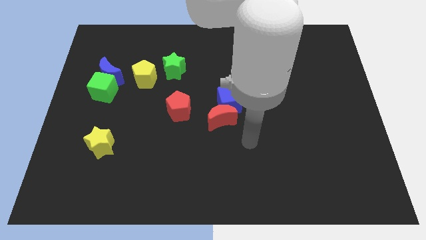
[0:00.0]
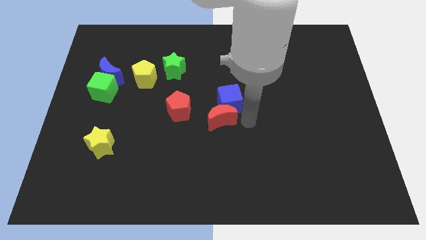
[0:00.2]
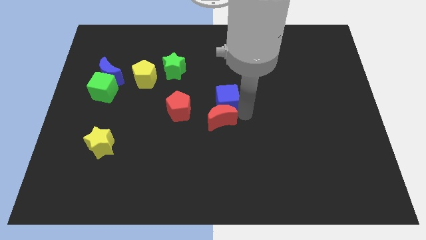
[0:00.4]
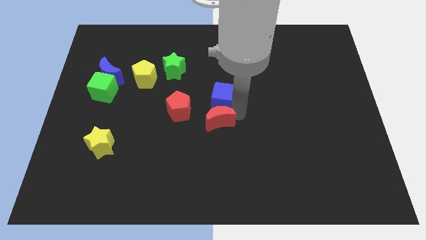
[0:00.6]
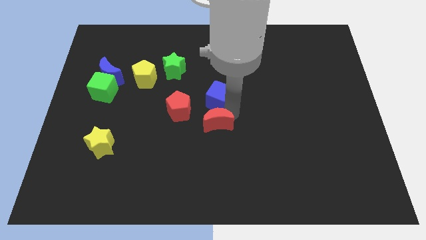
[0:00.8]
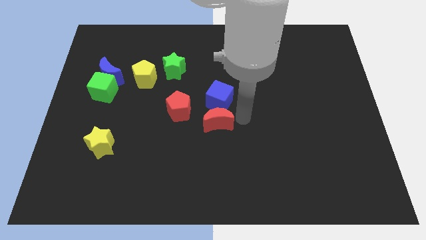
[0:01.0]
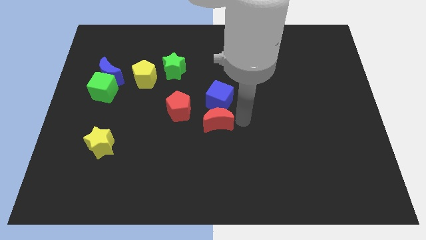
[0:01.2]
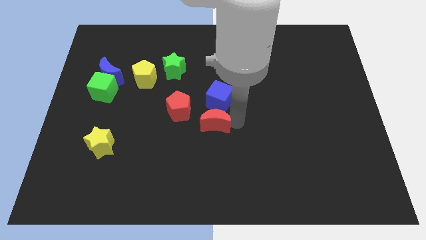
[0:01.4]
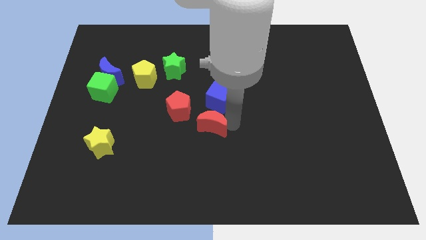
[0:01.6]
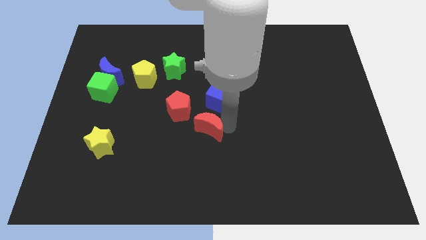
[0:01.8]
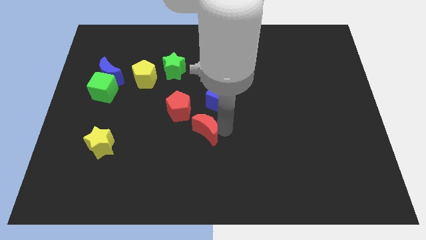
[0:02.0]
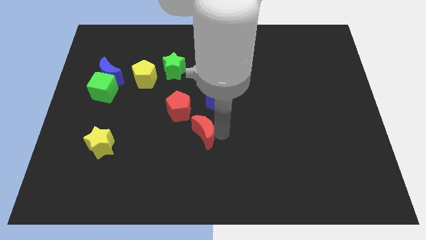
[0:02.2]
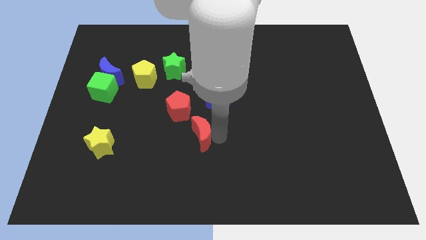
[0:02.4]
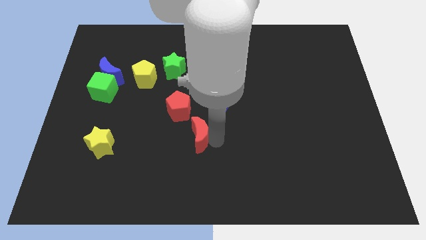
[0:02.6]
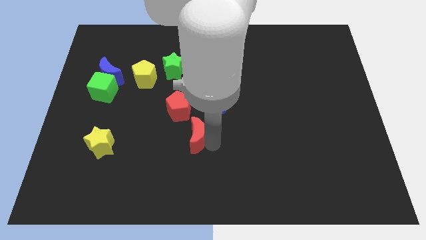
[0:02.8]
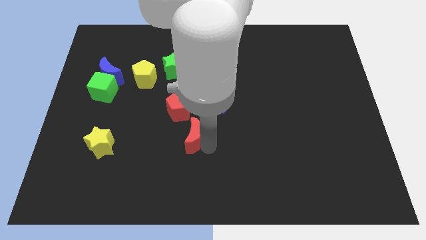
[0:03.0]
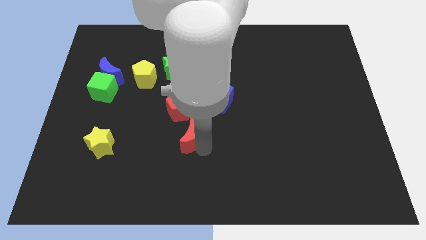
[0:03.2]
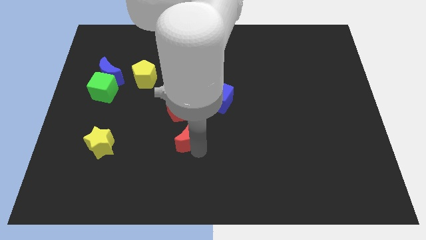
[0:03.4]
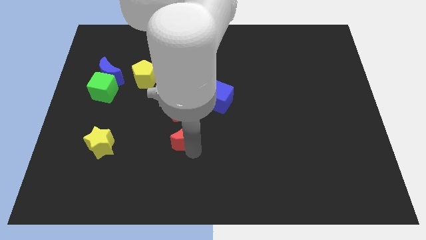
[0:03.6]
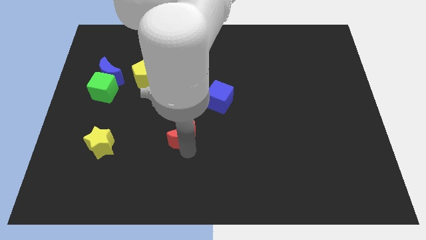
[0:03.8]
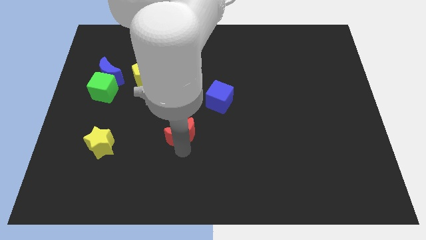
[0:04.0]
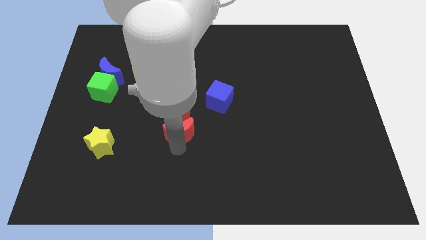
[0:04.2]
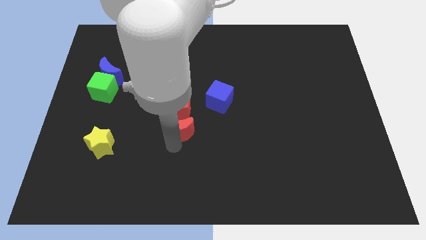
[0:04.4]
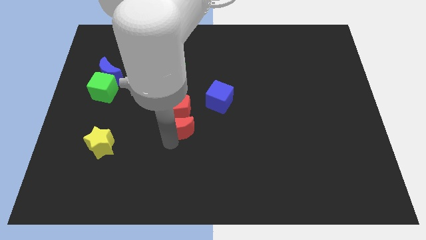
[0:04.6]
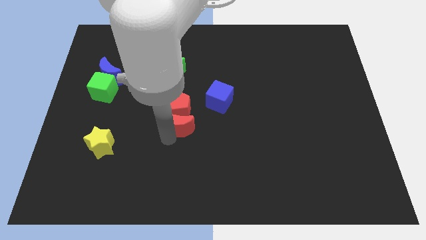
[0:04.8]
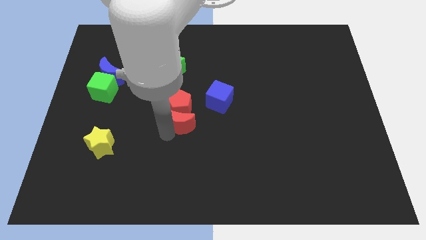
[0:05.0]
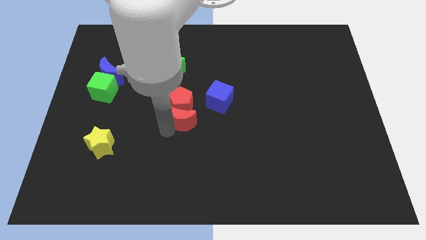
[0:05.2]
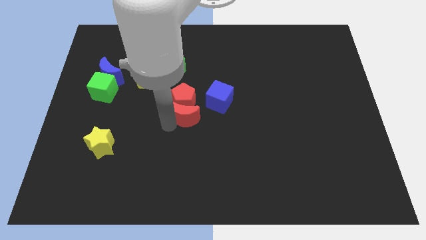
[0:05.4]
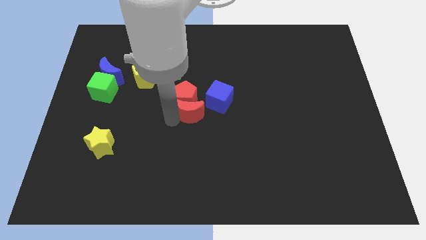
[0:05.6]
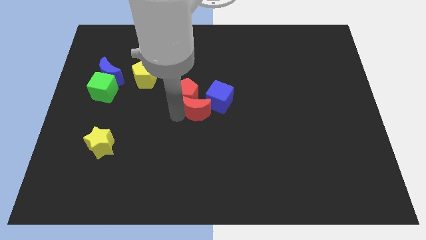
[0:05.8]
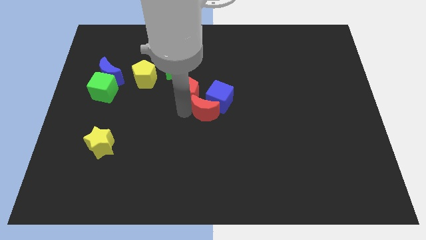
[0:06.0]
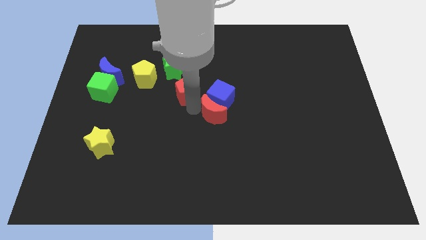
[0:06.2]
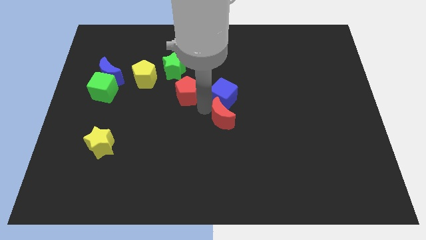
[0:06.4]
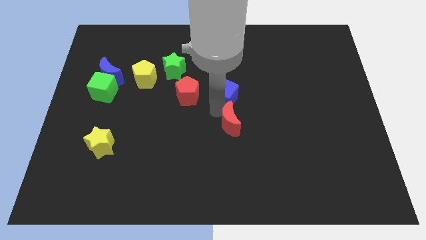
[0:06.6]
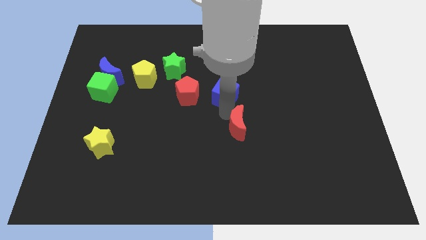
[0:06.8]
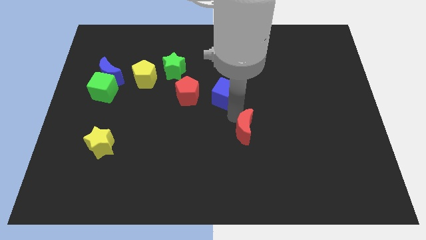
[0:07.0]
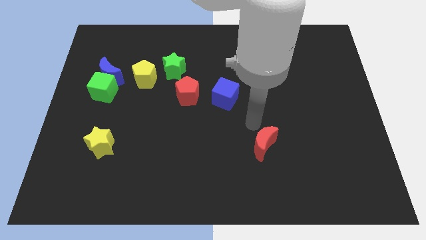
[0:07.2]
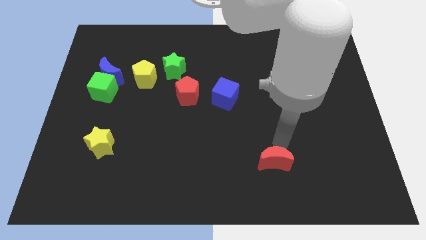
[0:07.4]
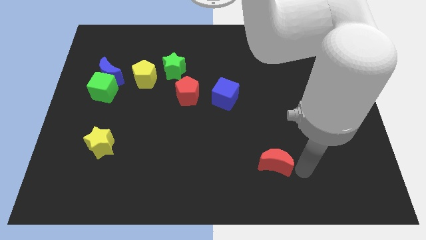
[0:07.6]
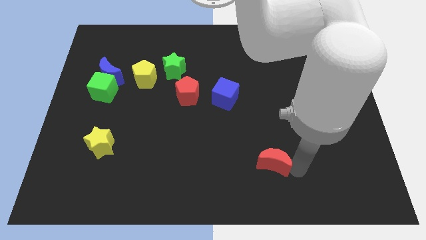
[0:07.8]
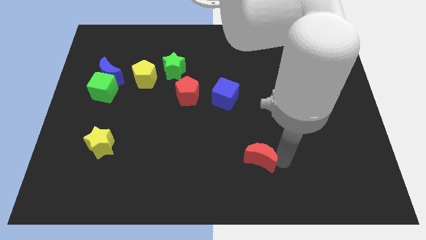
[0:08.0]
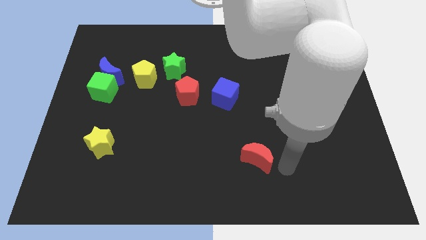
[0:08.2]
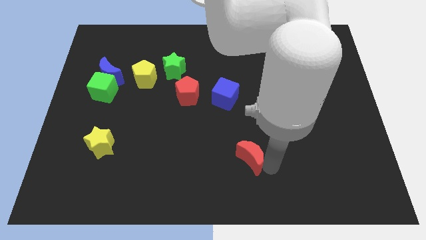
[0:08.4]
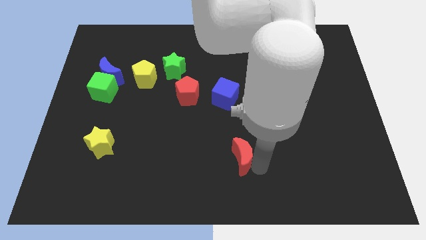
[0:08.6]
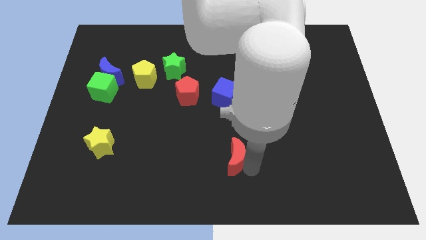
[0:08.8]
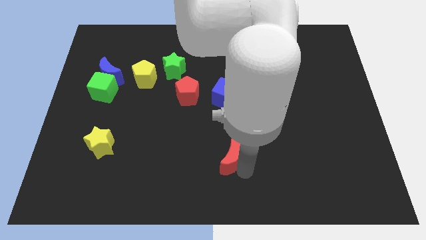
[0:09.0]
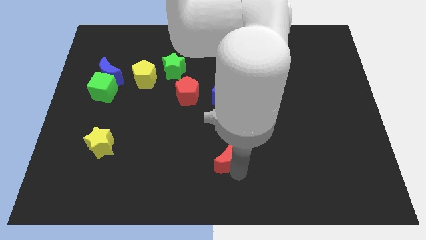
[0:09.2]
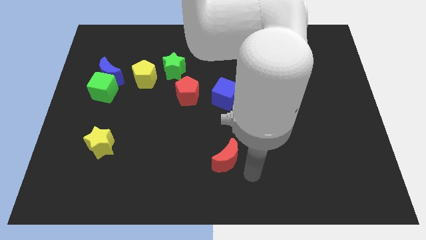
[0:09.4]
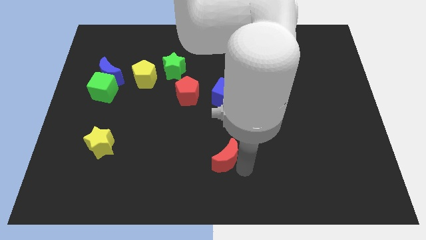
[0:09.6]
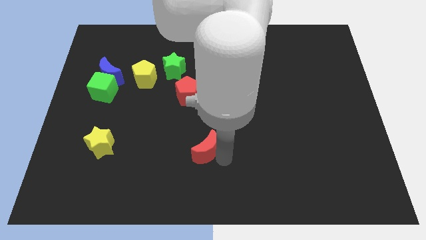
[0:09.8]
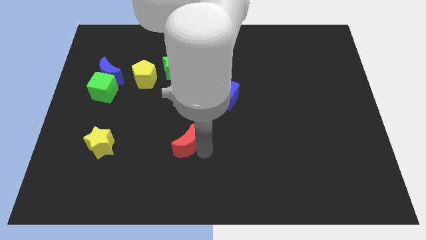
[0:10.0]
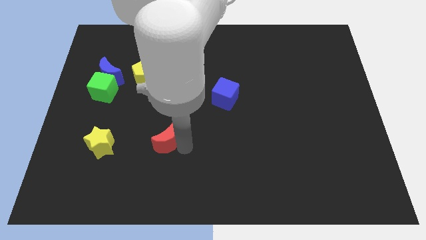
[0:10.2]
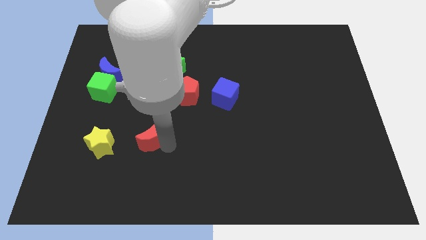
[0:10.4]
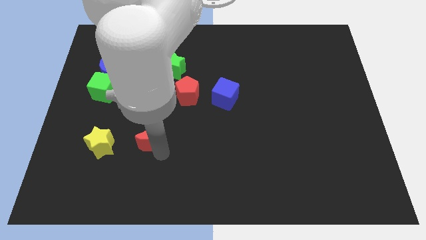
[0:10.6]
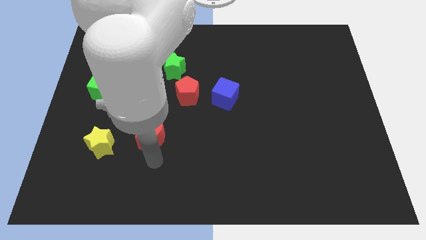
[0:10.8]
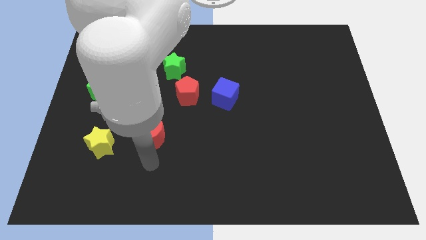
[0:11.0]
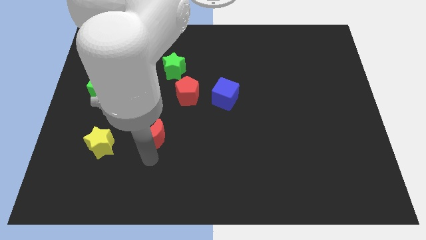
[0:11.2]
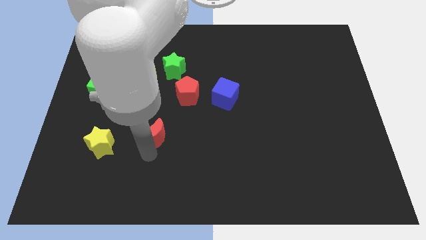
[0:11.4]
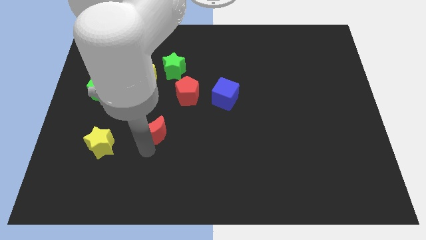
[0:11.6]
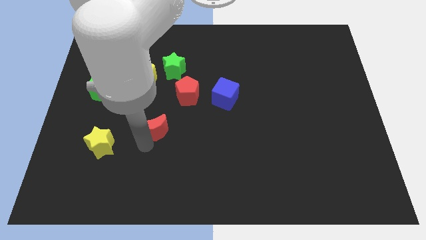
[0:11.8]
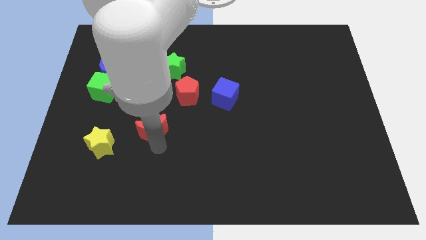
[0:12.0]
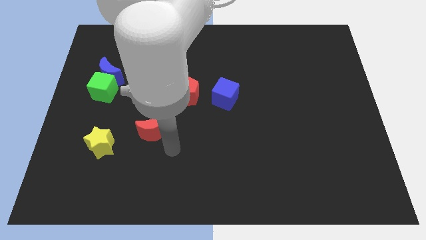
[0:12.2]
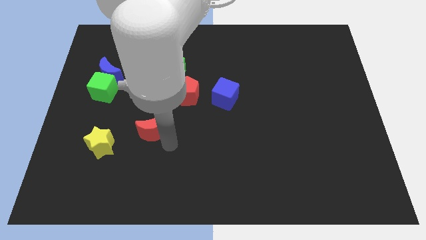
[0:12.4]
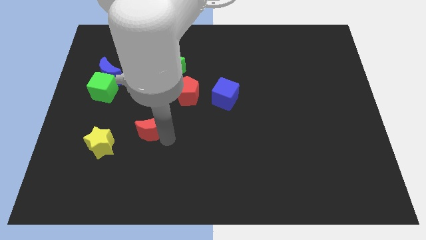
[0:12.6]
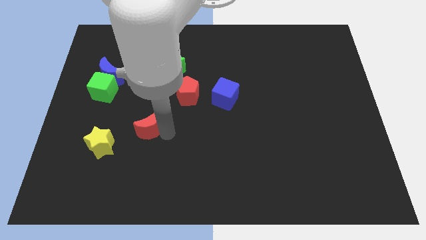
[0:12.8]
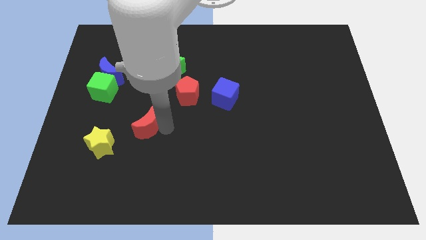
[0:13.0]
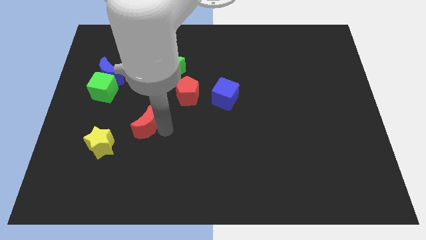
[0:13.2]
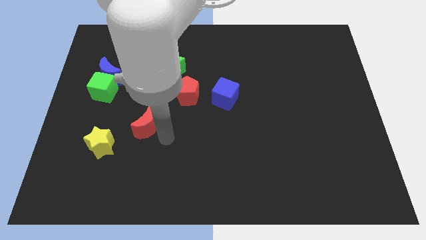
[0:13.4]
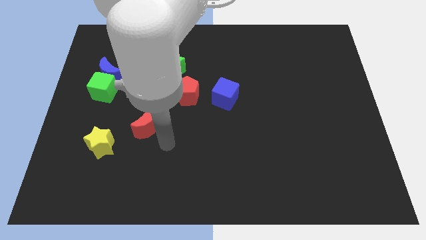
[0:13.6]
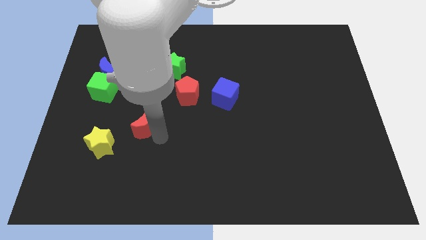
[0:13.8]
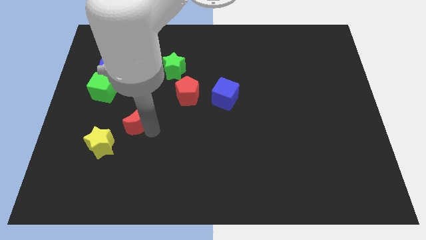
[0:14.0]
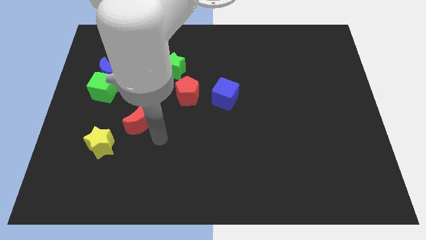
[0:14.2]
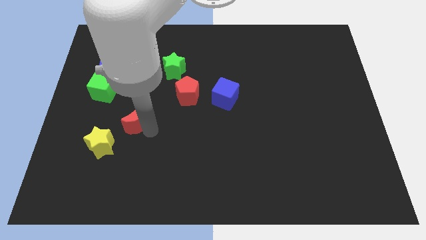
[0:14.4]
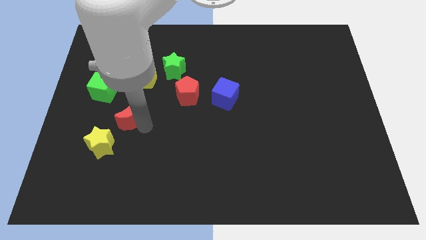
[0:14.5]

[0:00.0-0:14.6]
put the red moon to the bottom right side of the green cube
